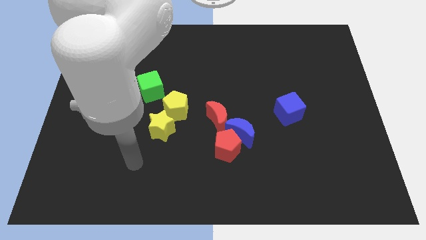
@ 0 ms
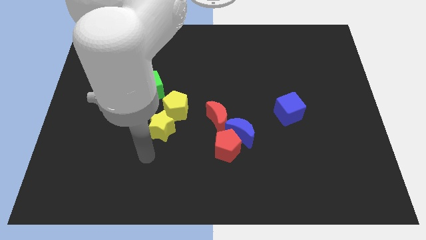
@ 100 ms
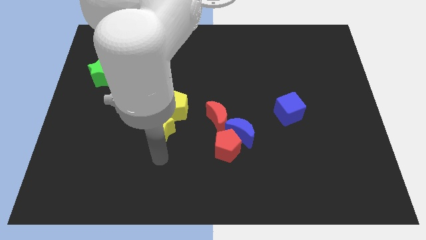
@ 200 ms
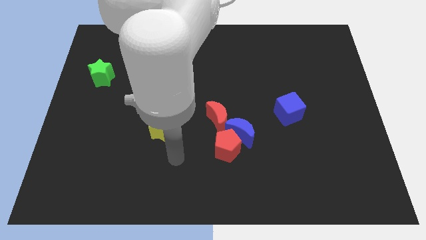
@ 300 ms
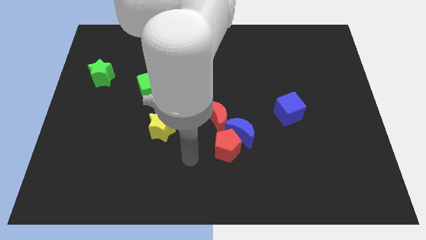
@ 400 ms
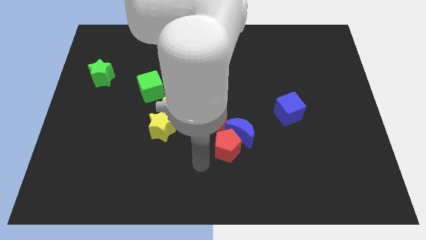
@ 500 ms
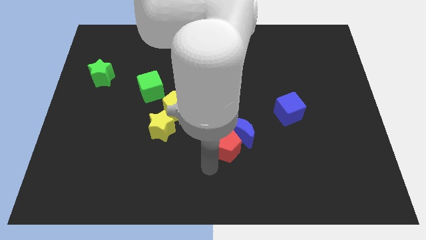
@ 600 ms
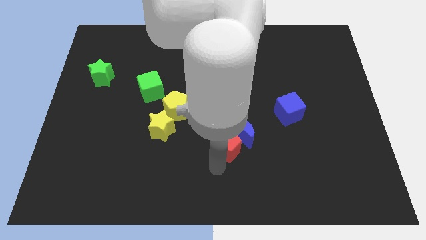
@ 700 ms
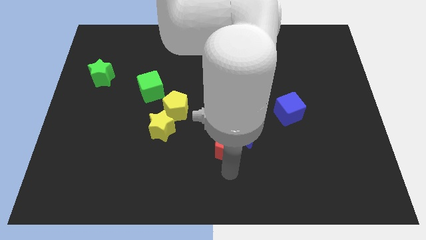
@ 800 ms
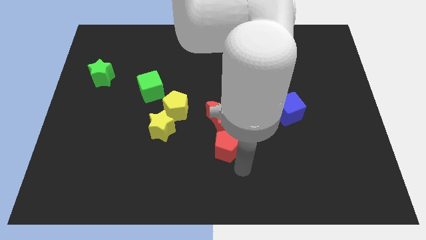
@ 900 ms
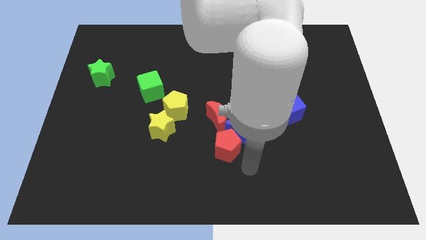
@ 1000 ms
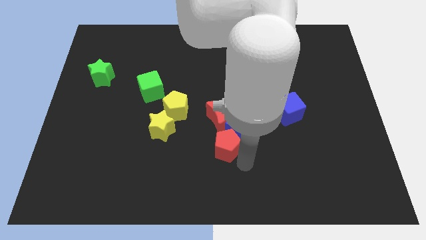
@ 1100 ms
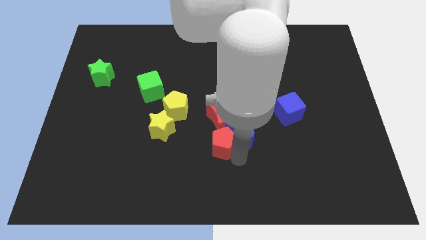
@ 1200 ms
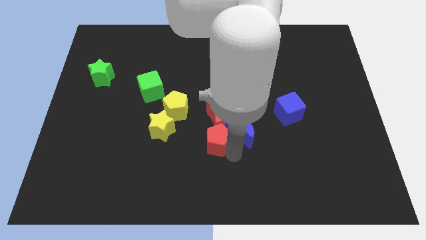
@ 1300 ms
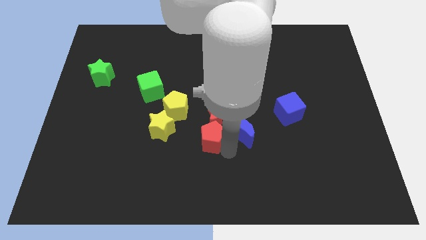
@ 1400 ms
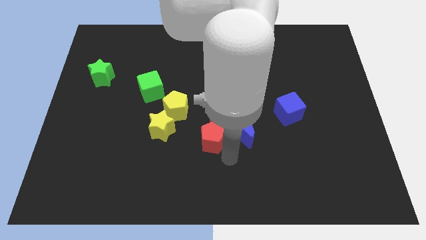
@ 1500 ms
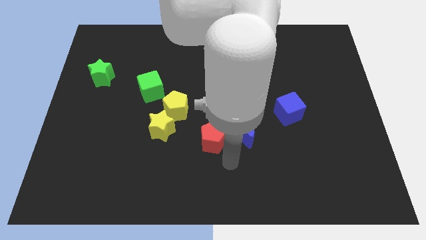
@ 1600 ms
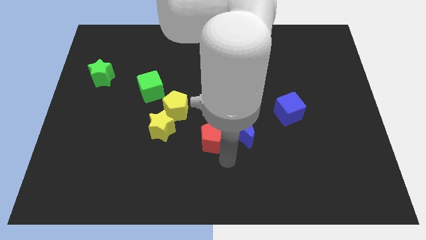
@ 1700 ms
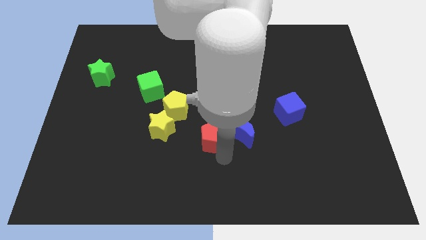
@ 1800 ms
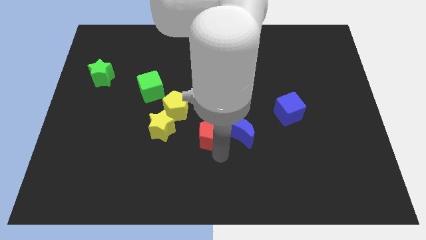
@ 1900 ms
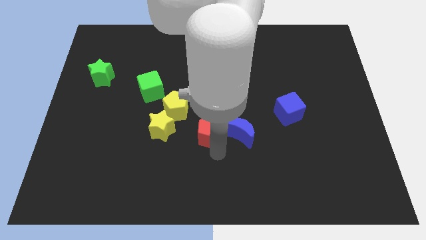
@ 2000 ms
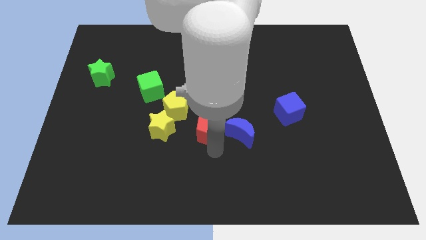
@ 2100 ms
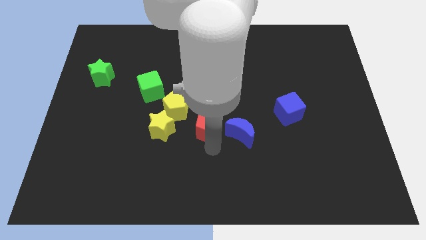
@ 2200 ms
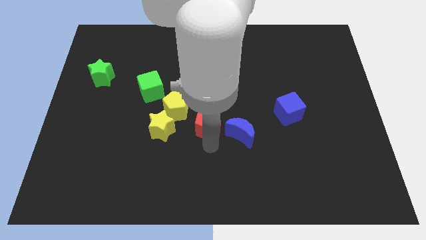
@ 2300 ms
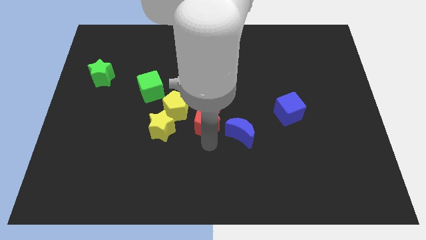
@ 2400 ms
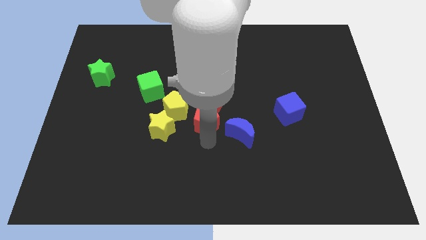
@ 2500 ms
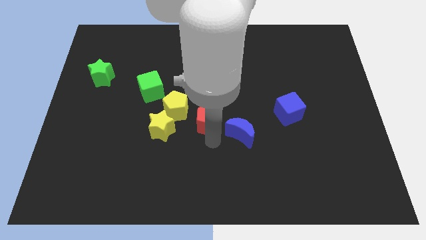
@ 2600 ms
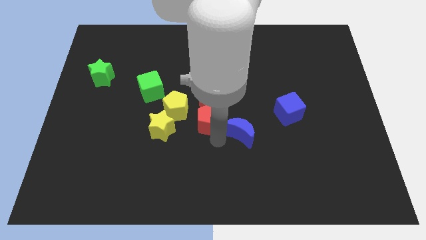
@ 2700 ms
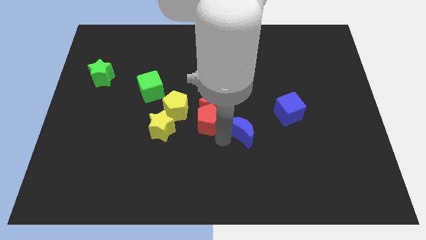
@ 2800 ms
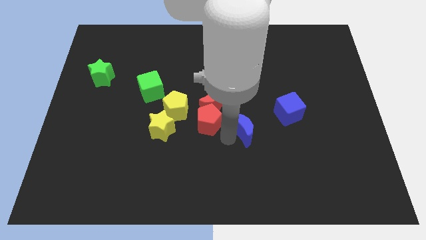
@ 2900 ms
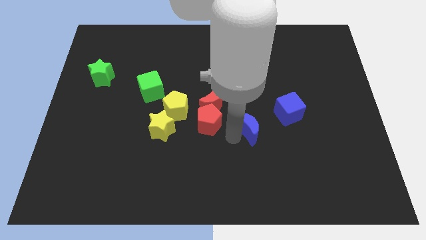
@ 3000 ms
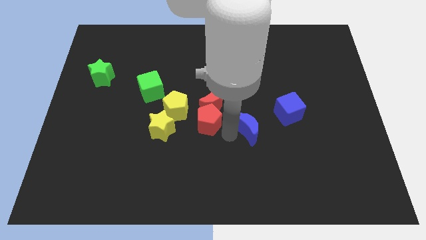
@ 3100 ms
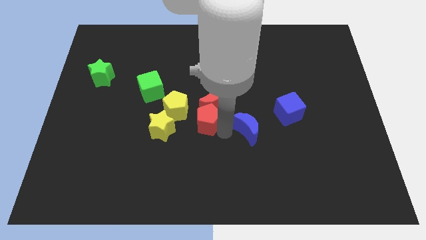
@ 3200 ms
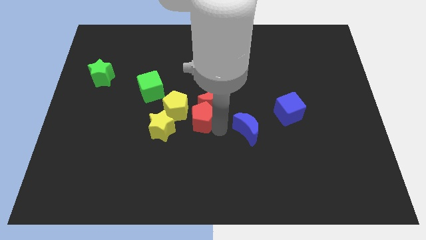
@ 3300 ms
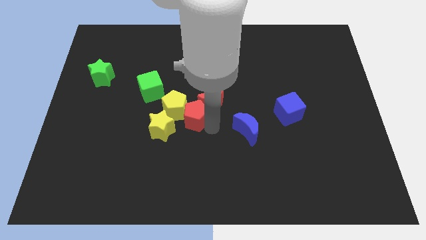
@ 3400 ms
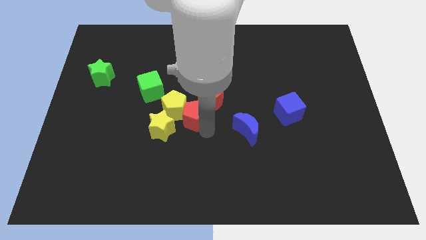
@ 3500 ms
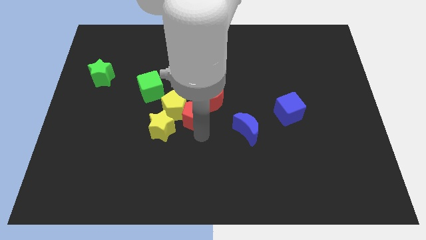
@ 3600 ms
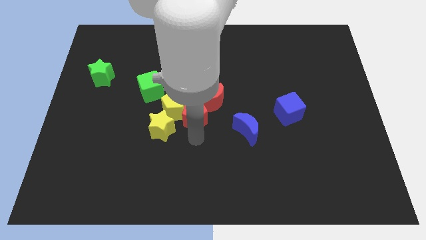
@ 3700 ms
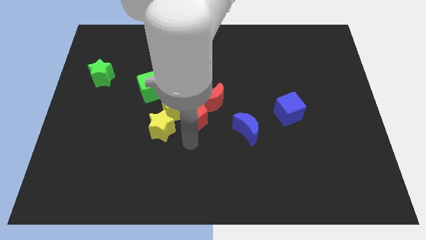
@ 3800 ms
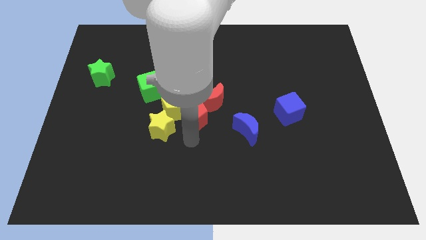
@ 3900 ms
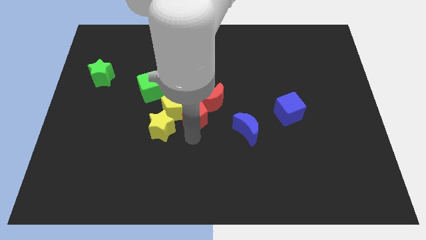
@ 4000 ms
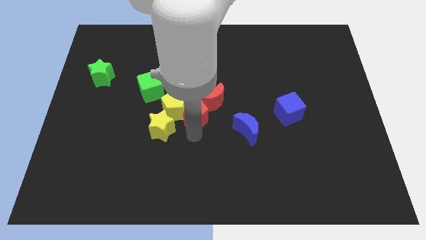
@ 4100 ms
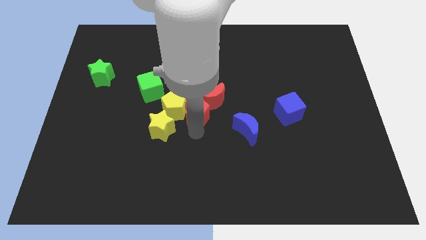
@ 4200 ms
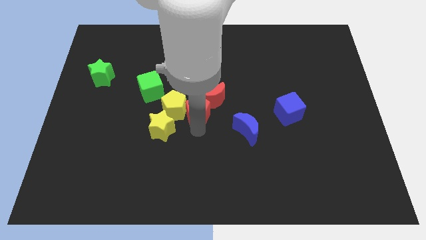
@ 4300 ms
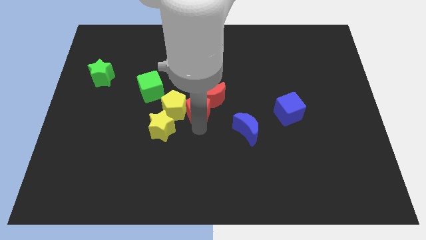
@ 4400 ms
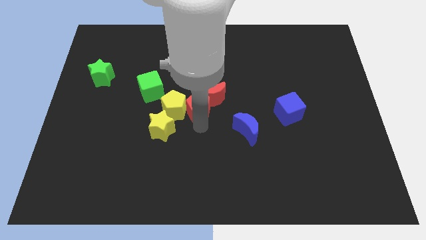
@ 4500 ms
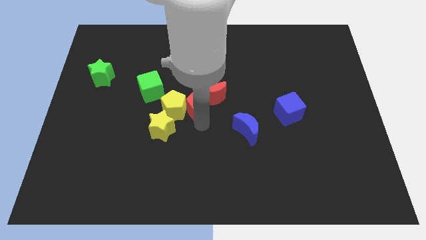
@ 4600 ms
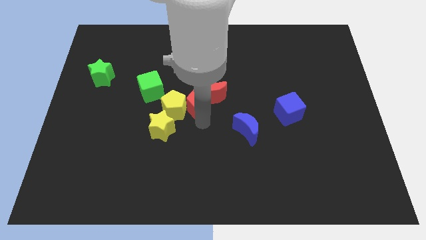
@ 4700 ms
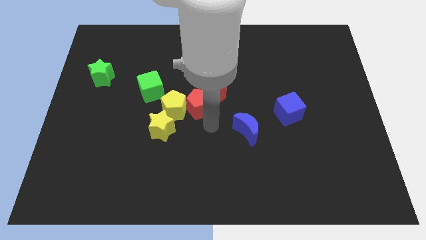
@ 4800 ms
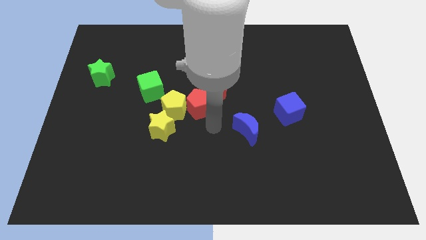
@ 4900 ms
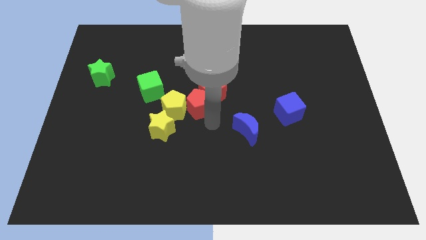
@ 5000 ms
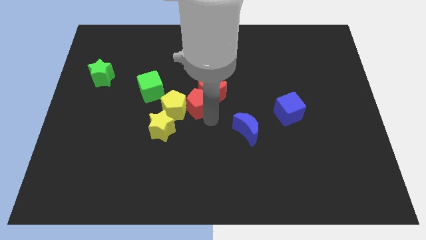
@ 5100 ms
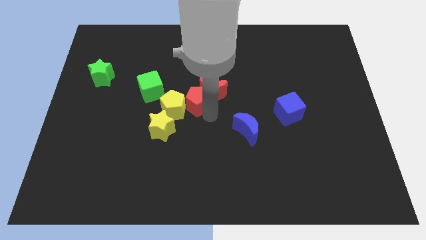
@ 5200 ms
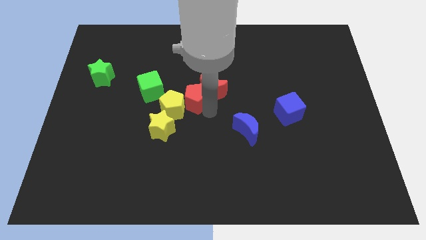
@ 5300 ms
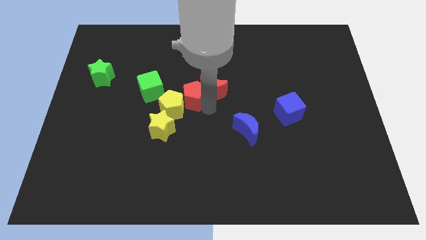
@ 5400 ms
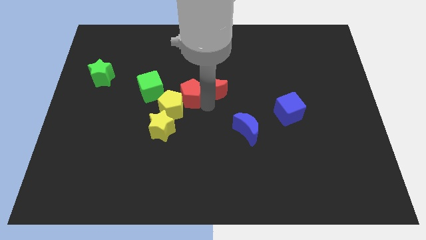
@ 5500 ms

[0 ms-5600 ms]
move the red pentagon above the yellow pentagon

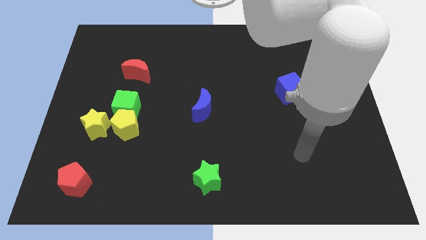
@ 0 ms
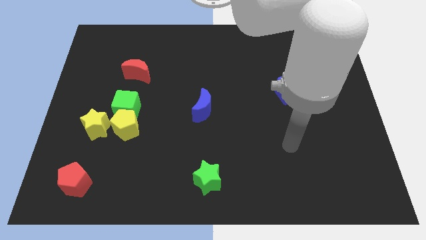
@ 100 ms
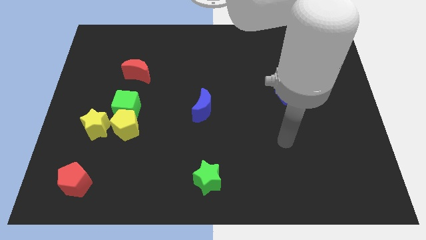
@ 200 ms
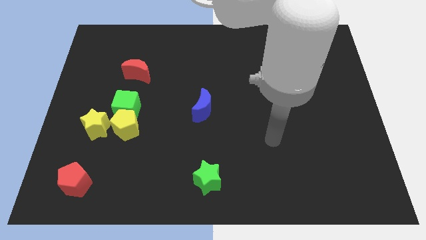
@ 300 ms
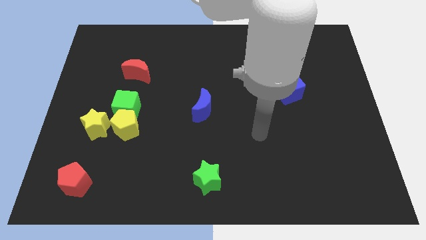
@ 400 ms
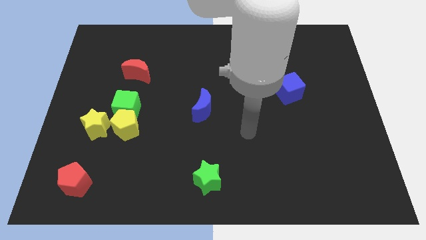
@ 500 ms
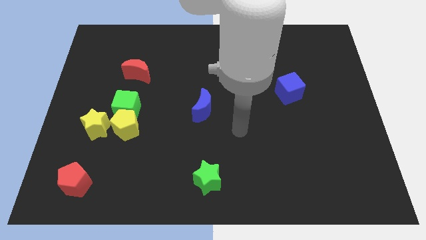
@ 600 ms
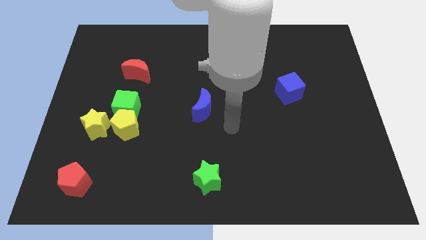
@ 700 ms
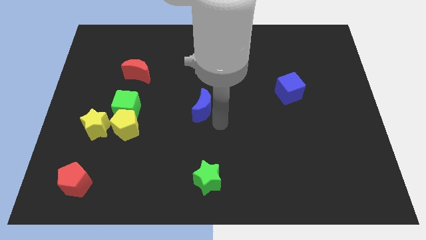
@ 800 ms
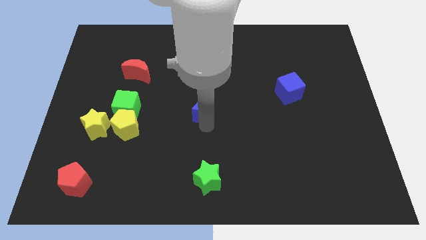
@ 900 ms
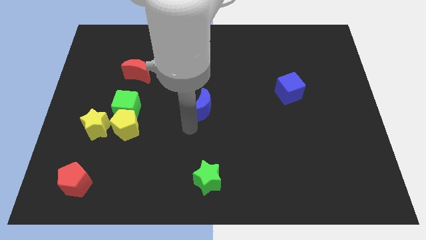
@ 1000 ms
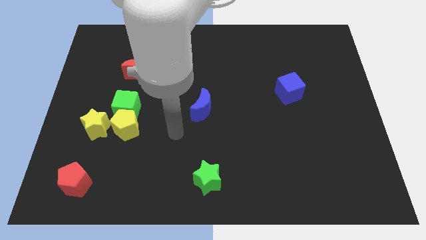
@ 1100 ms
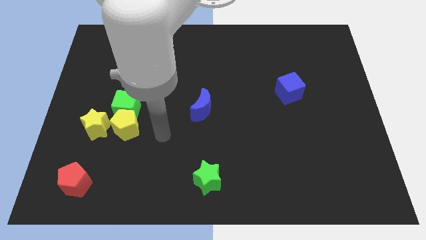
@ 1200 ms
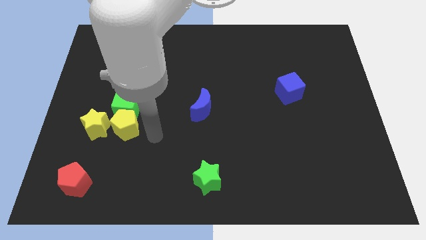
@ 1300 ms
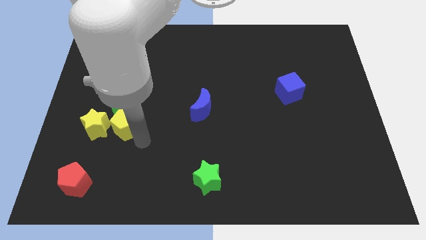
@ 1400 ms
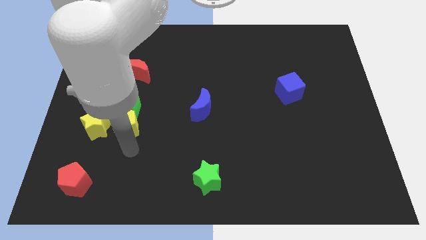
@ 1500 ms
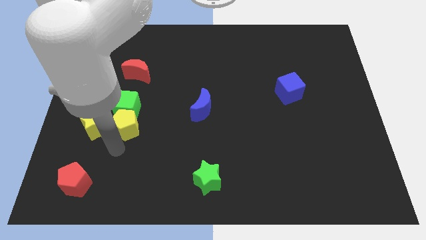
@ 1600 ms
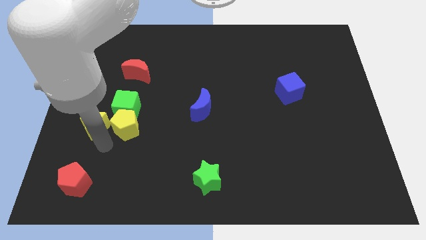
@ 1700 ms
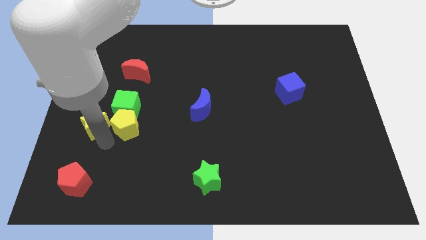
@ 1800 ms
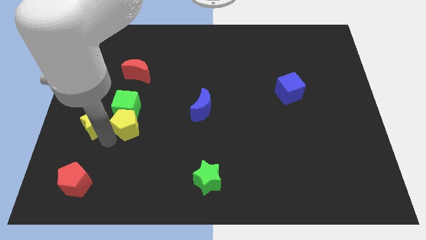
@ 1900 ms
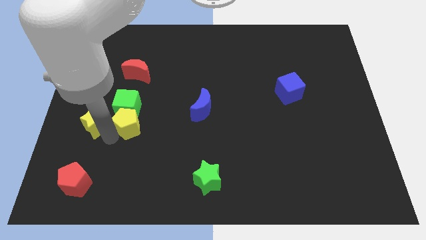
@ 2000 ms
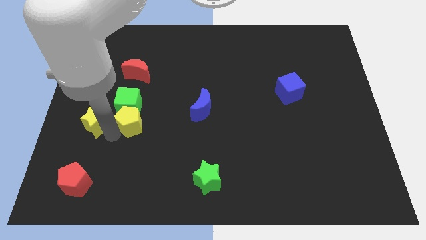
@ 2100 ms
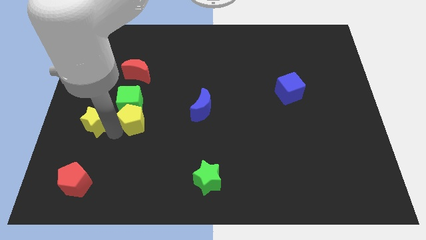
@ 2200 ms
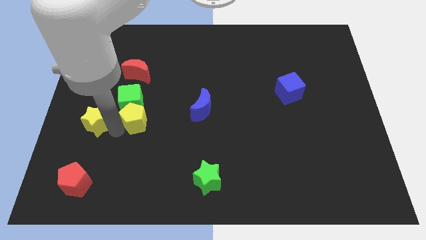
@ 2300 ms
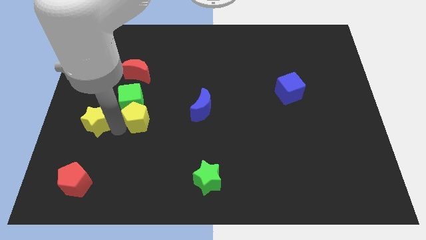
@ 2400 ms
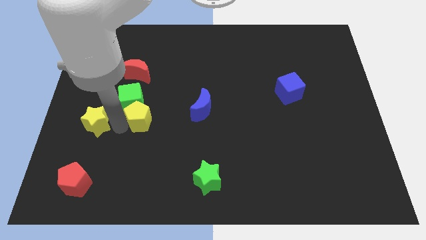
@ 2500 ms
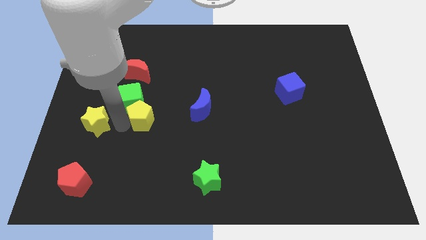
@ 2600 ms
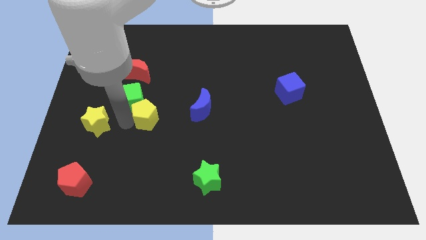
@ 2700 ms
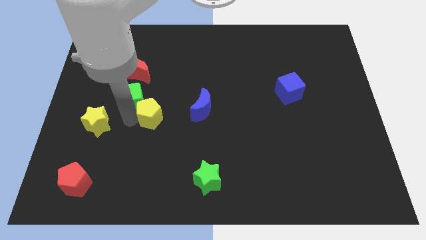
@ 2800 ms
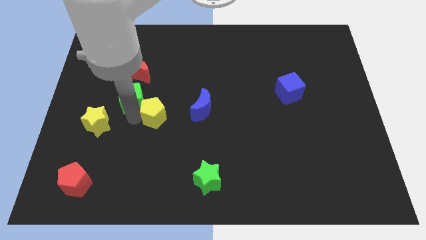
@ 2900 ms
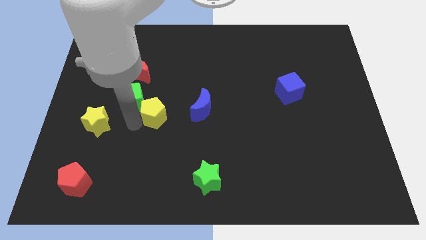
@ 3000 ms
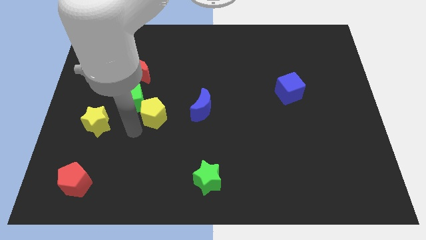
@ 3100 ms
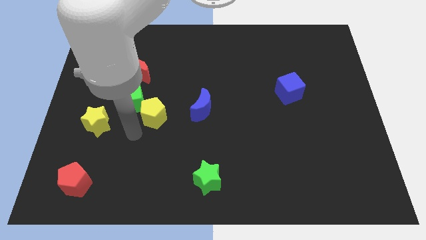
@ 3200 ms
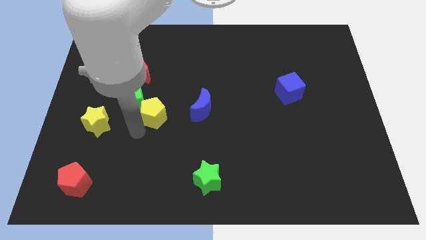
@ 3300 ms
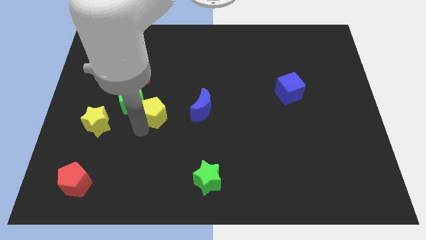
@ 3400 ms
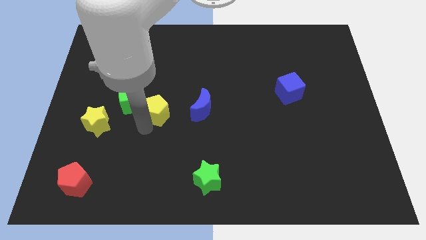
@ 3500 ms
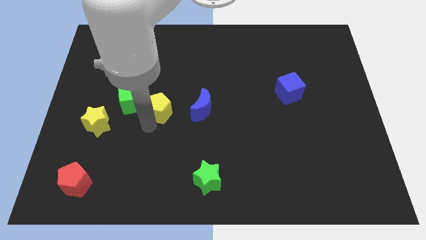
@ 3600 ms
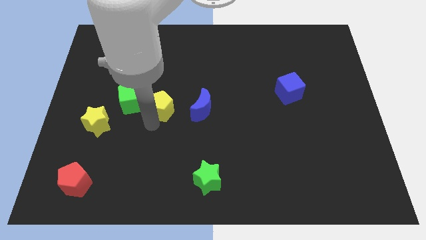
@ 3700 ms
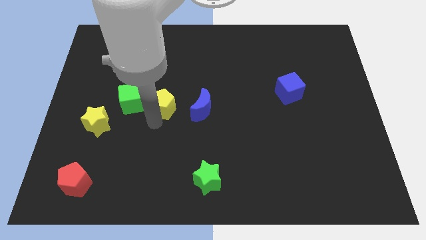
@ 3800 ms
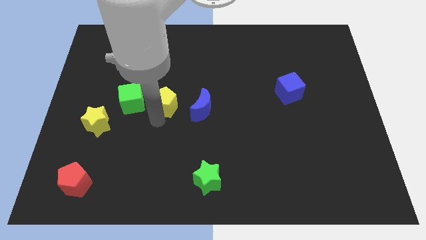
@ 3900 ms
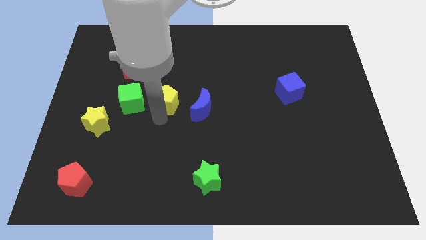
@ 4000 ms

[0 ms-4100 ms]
put the yellow pentagon diagonally up and to the left of the blue moon
